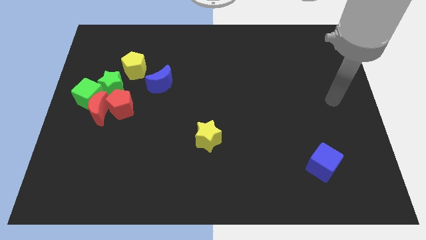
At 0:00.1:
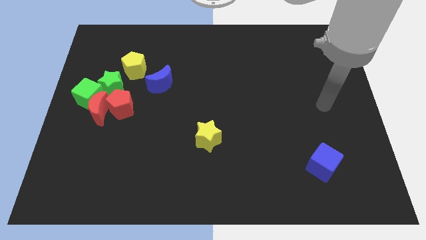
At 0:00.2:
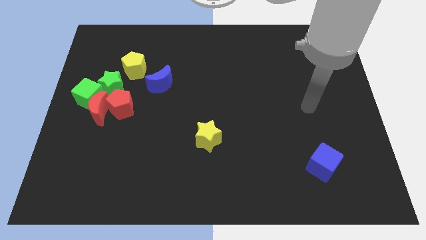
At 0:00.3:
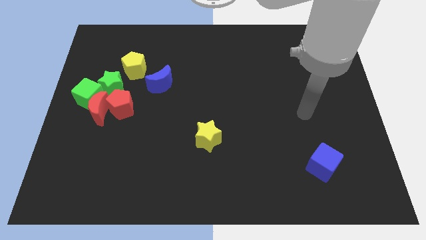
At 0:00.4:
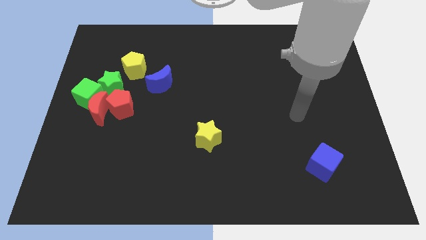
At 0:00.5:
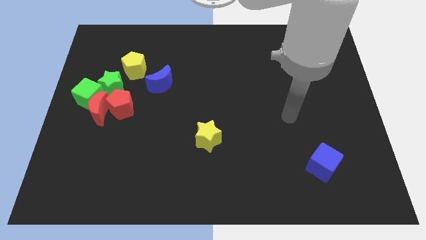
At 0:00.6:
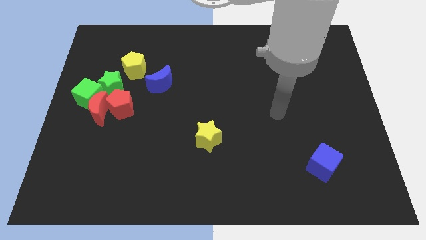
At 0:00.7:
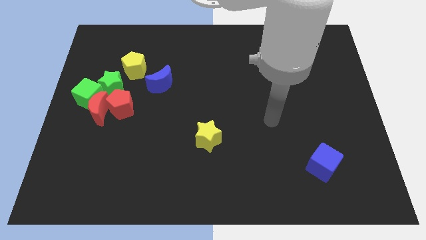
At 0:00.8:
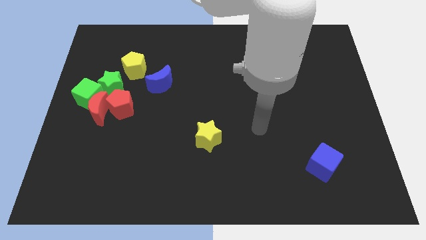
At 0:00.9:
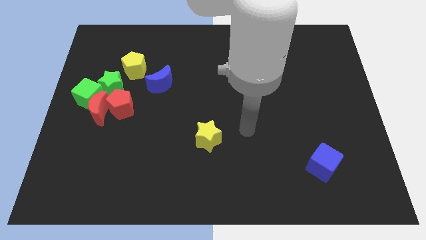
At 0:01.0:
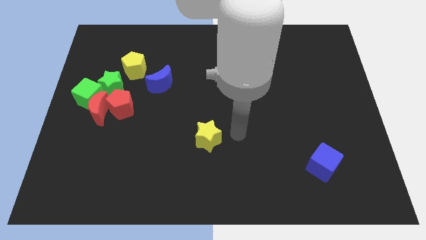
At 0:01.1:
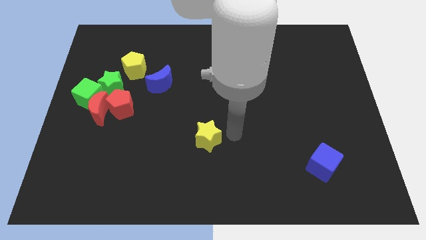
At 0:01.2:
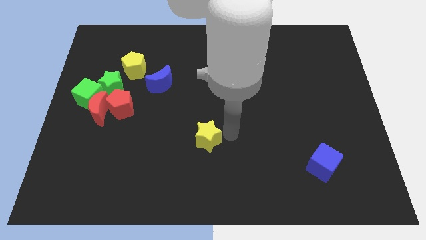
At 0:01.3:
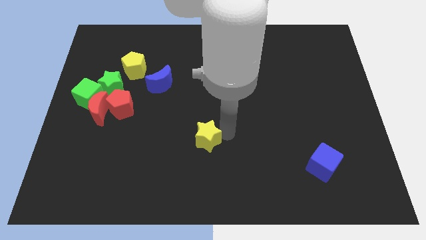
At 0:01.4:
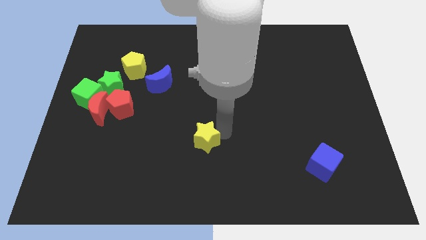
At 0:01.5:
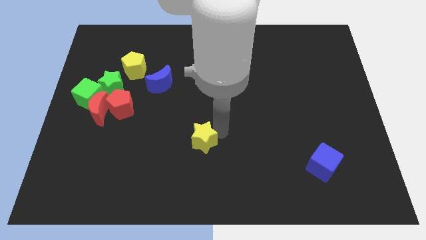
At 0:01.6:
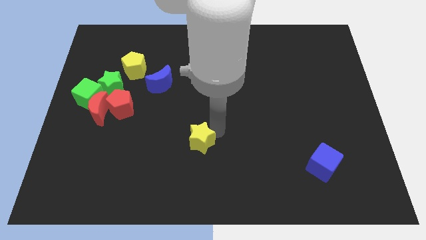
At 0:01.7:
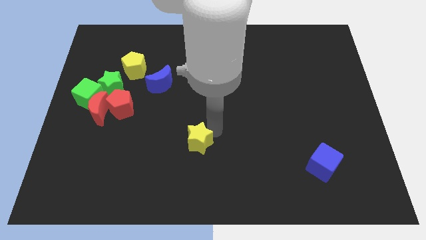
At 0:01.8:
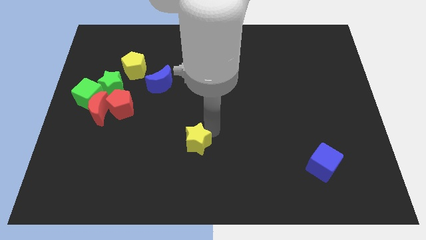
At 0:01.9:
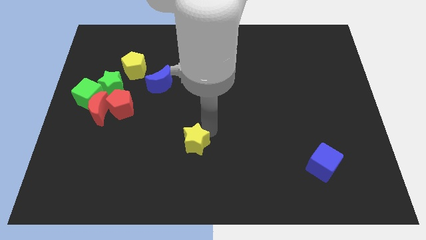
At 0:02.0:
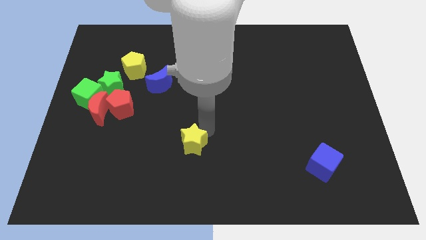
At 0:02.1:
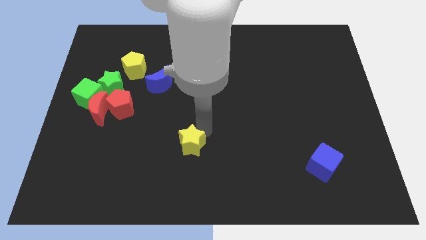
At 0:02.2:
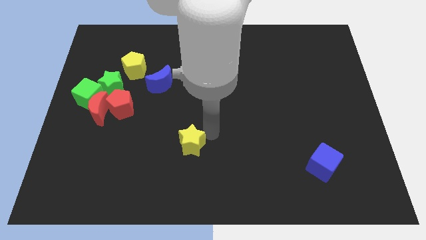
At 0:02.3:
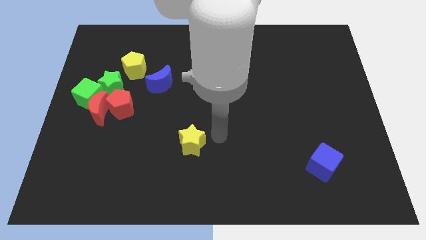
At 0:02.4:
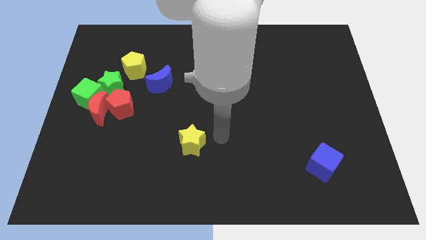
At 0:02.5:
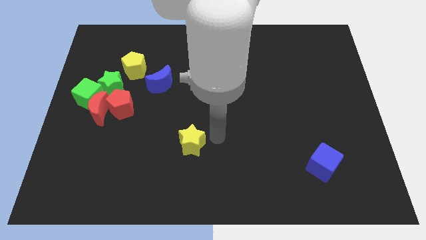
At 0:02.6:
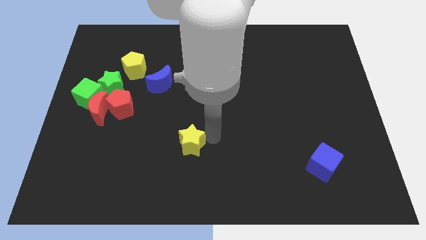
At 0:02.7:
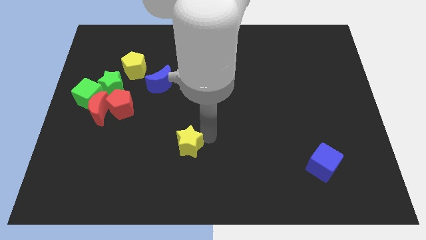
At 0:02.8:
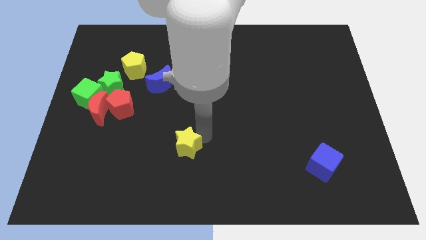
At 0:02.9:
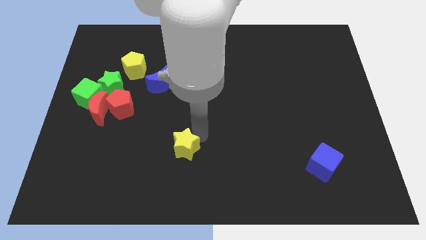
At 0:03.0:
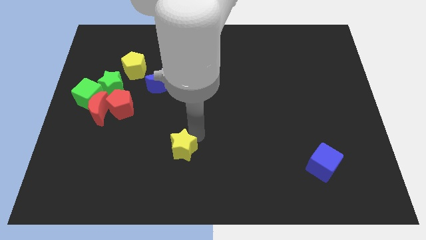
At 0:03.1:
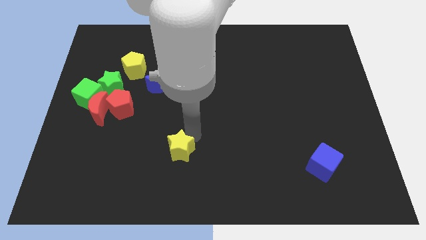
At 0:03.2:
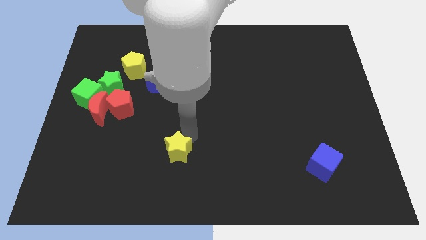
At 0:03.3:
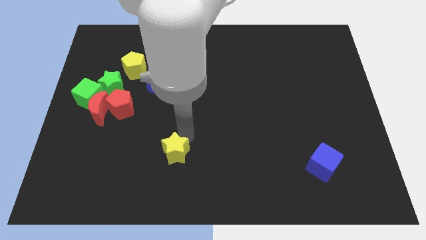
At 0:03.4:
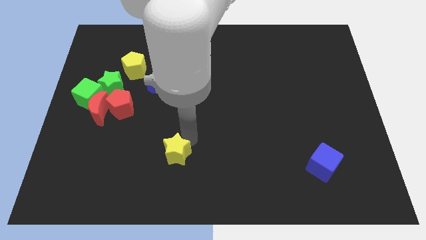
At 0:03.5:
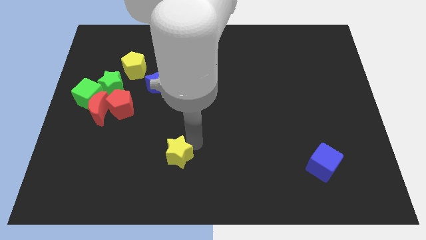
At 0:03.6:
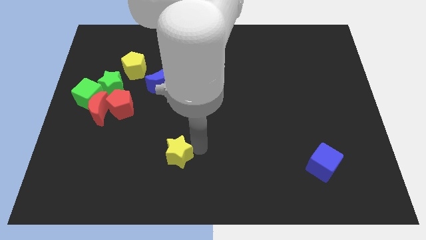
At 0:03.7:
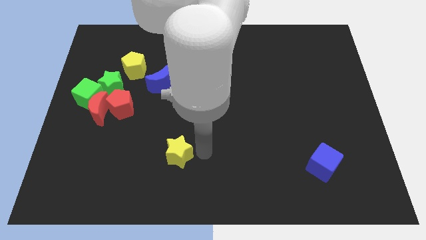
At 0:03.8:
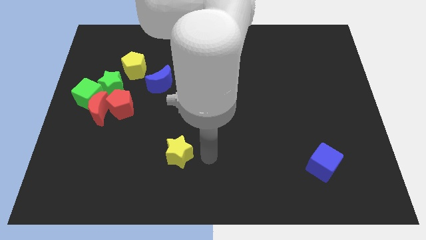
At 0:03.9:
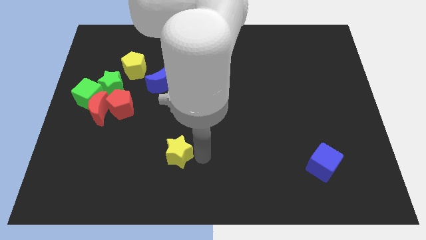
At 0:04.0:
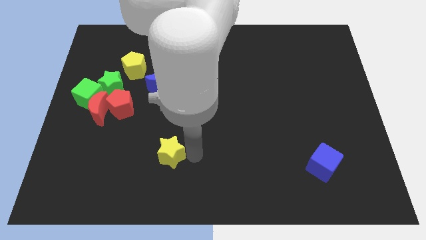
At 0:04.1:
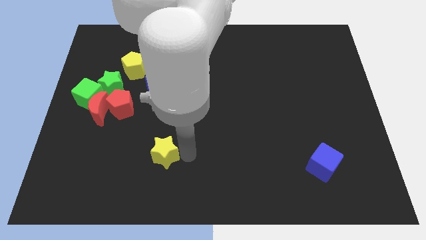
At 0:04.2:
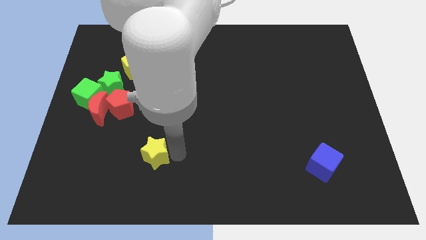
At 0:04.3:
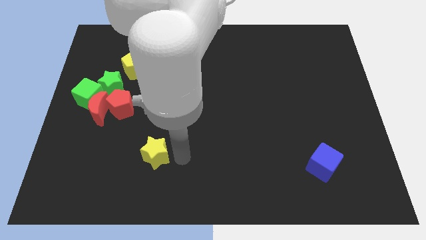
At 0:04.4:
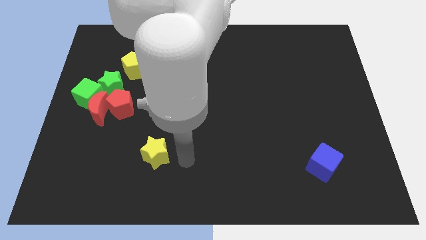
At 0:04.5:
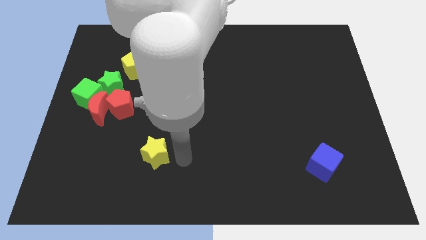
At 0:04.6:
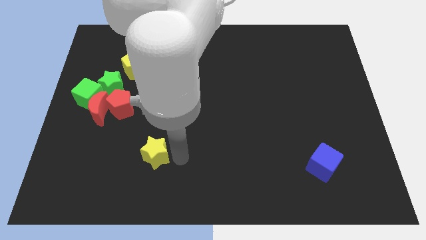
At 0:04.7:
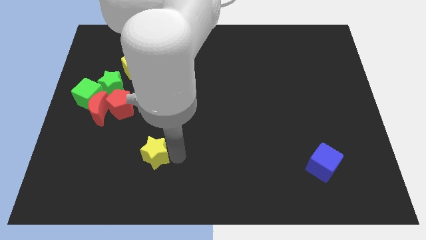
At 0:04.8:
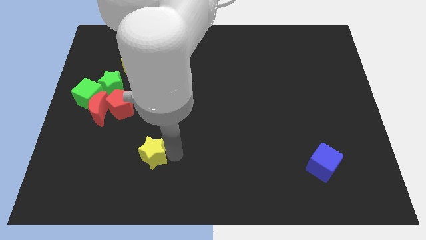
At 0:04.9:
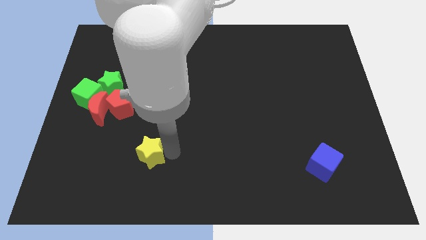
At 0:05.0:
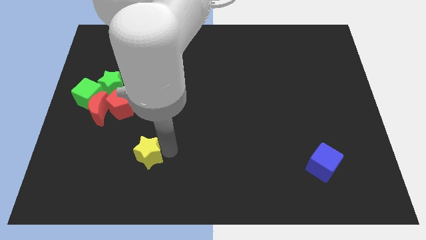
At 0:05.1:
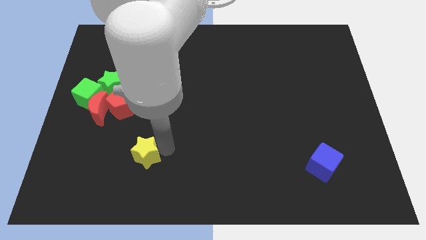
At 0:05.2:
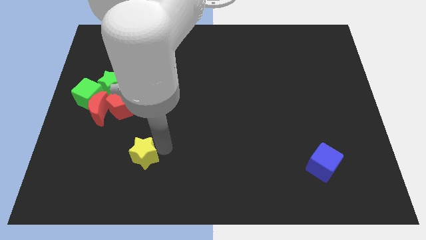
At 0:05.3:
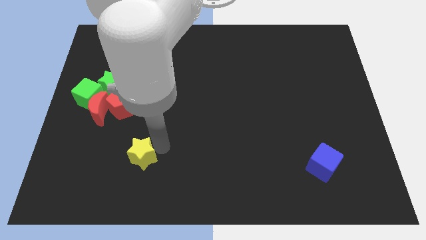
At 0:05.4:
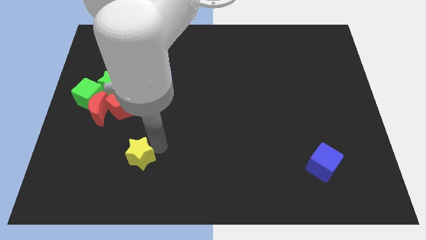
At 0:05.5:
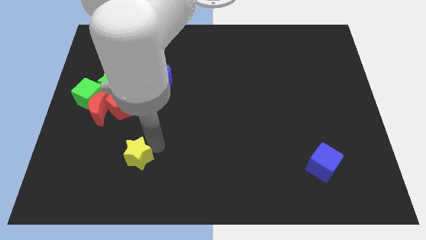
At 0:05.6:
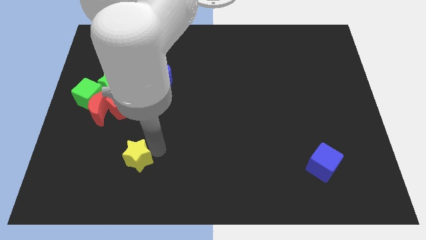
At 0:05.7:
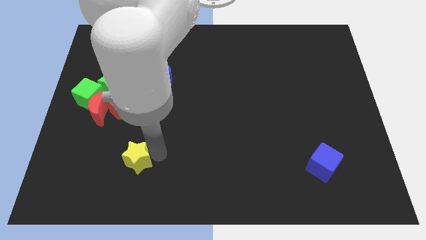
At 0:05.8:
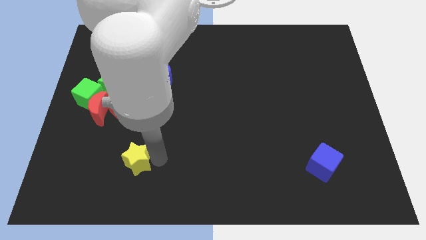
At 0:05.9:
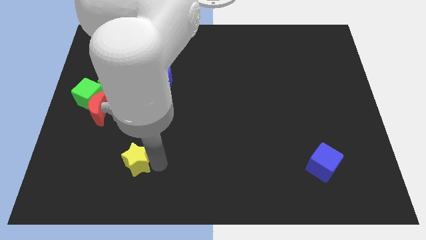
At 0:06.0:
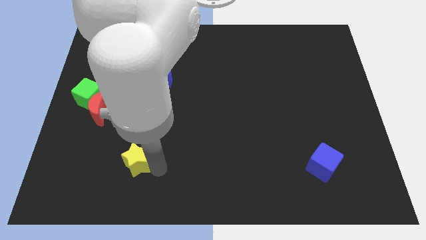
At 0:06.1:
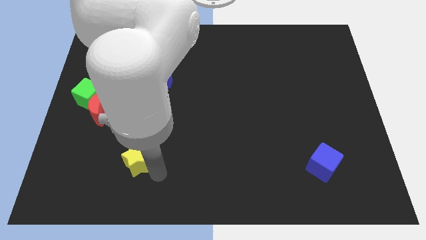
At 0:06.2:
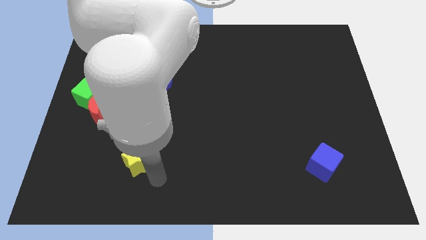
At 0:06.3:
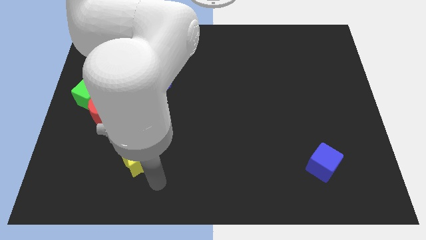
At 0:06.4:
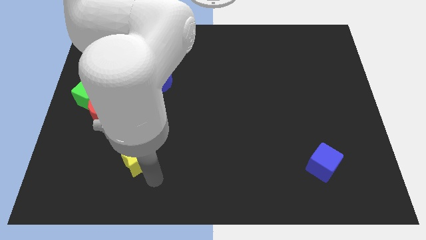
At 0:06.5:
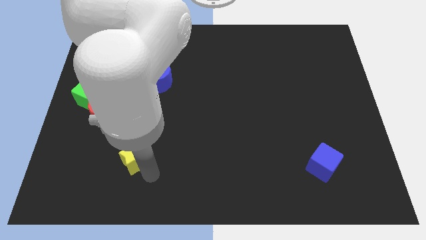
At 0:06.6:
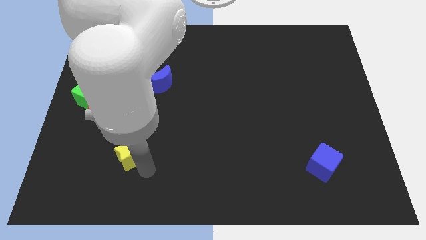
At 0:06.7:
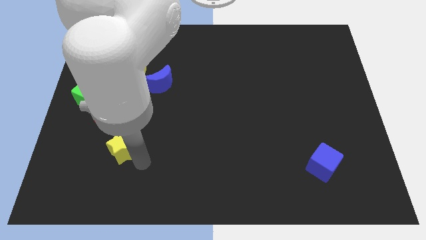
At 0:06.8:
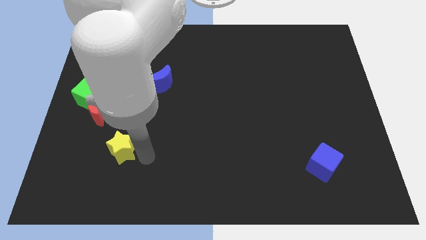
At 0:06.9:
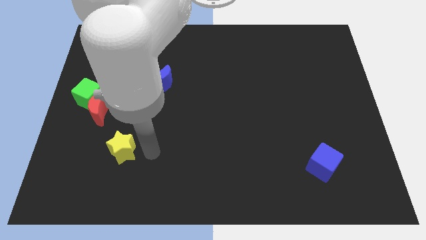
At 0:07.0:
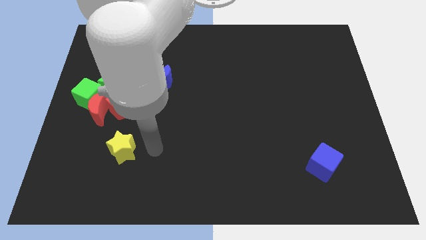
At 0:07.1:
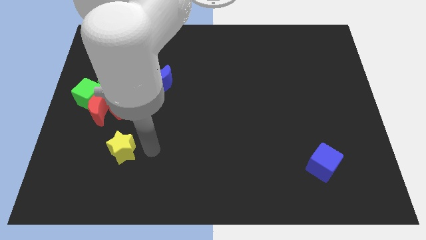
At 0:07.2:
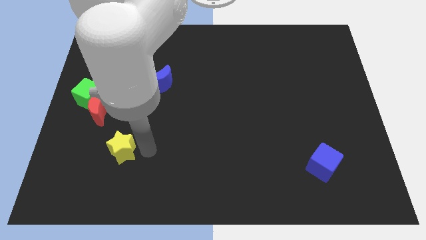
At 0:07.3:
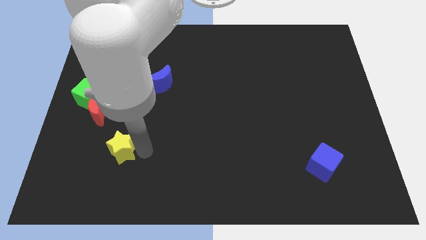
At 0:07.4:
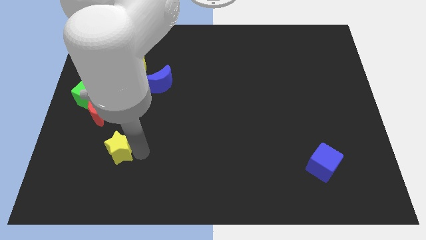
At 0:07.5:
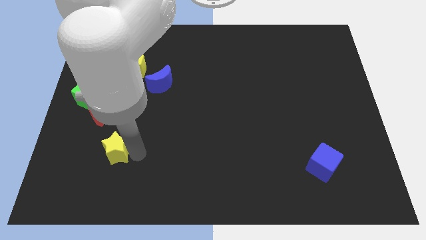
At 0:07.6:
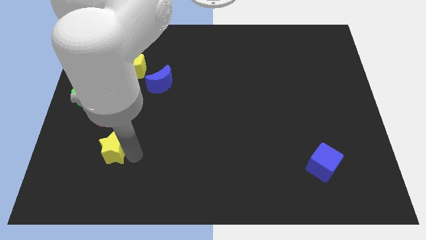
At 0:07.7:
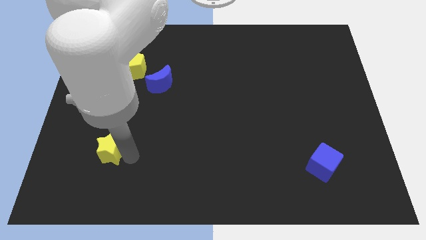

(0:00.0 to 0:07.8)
put the yellow star to the bottom side of the red moon
